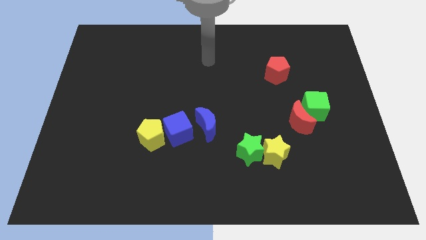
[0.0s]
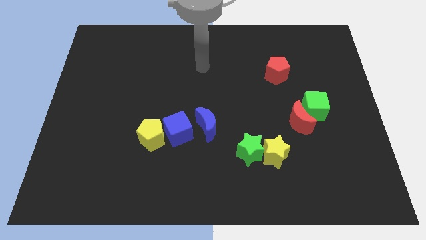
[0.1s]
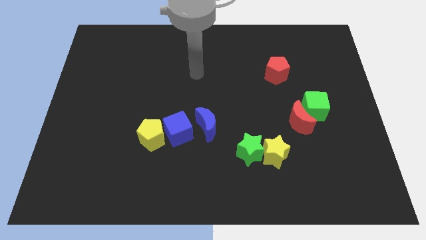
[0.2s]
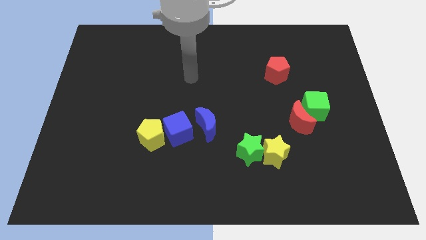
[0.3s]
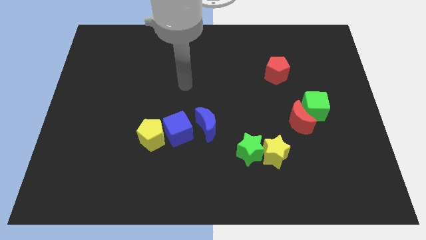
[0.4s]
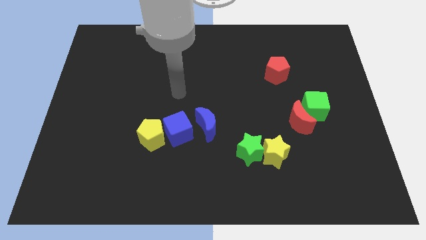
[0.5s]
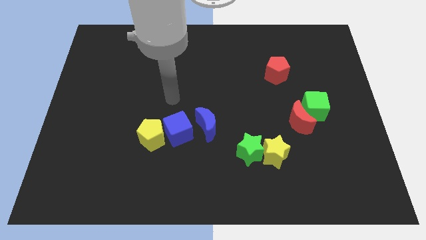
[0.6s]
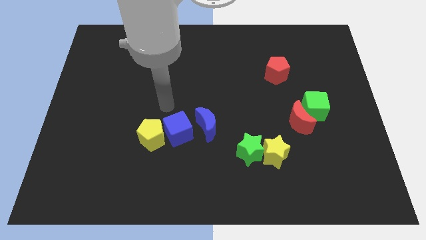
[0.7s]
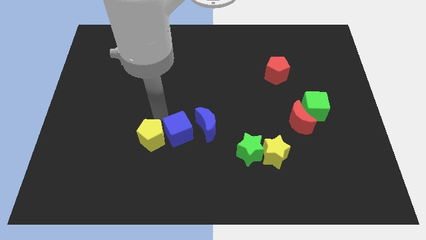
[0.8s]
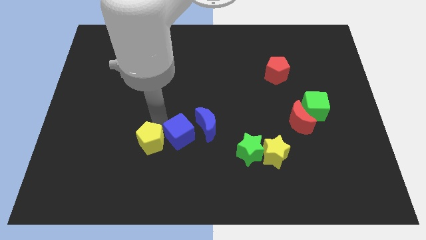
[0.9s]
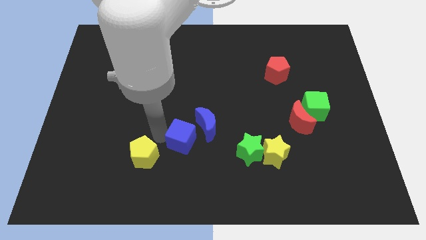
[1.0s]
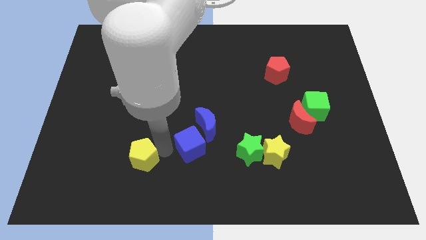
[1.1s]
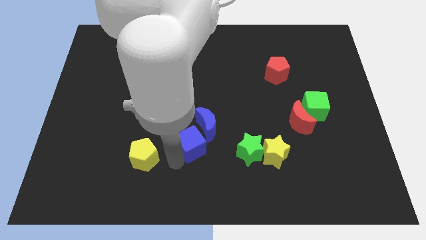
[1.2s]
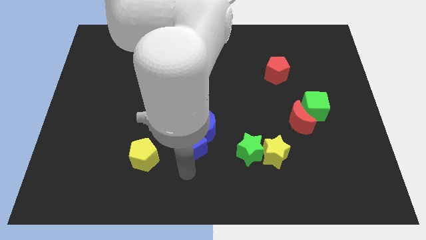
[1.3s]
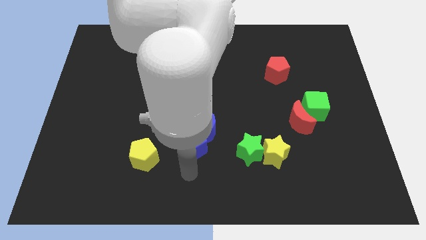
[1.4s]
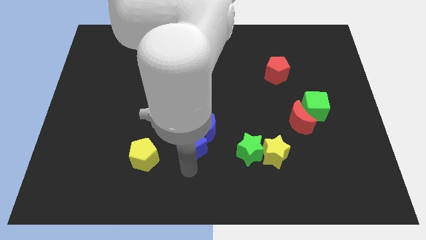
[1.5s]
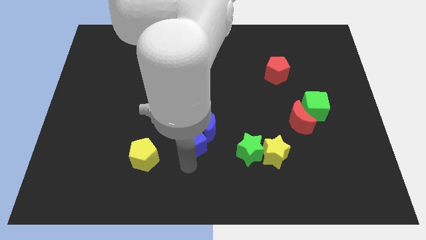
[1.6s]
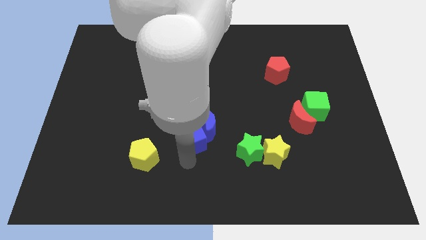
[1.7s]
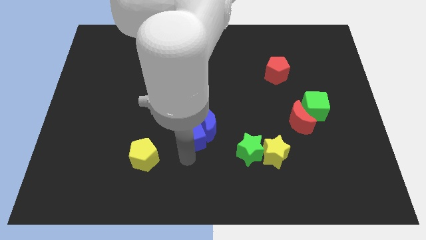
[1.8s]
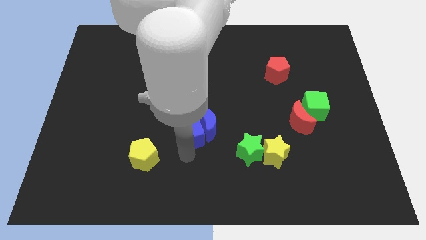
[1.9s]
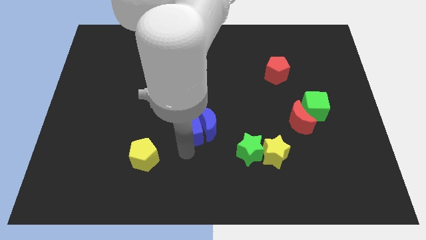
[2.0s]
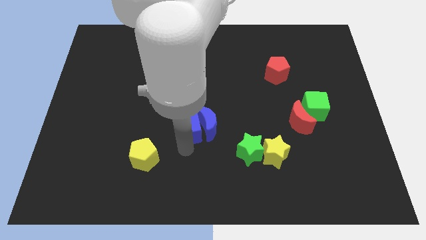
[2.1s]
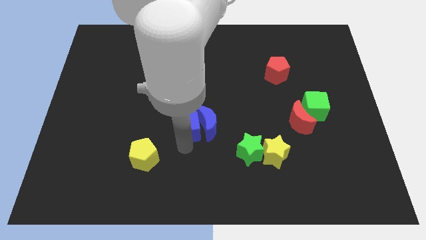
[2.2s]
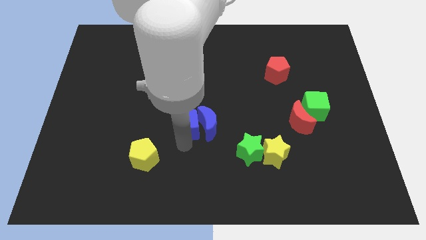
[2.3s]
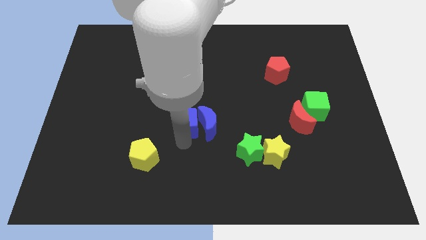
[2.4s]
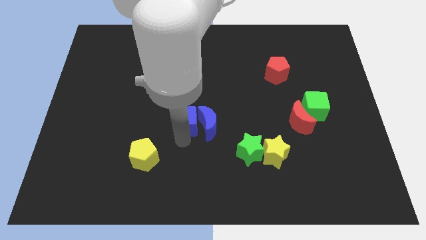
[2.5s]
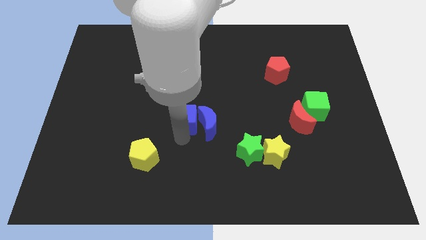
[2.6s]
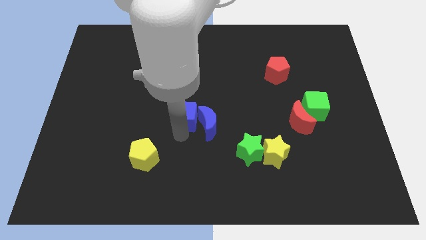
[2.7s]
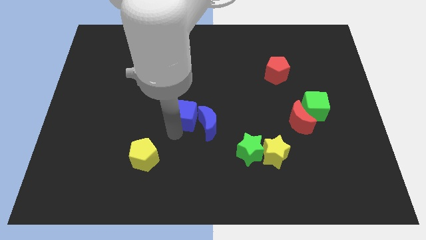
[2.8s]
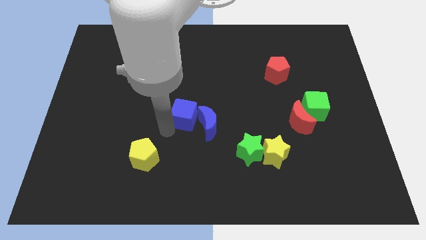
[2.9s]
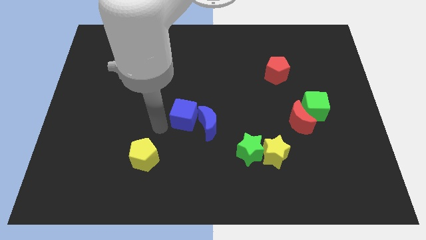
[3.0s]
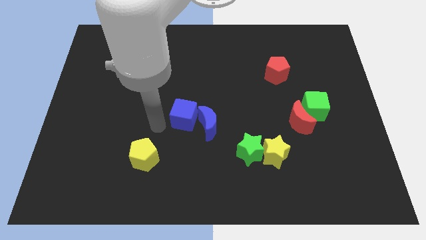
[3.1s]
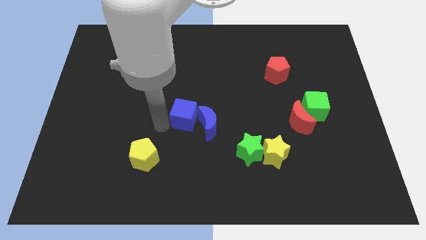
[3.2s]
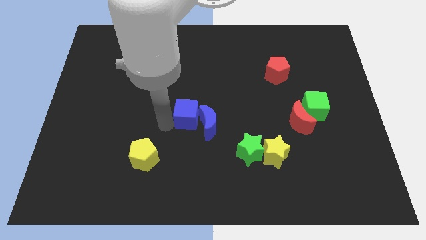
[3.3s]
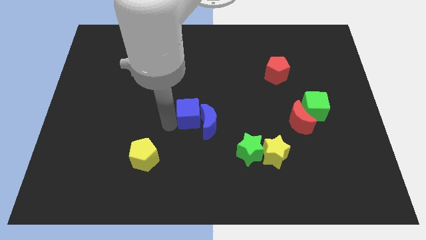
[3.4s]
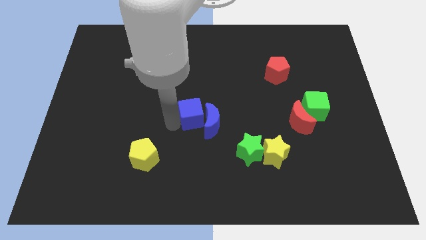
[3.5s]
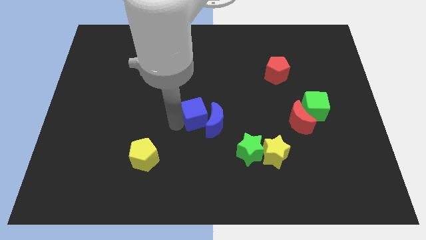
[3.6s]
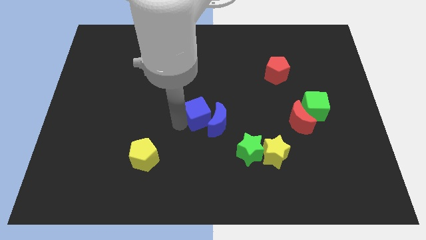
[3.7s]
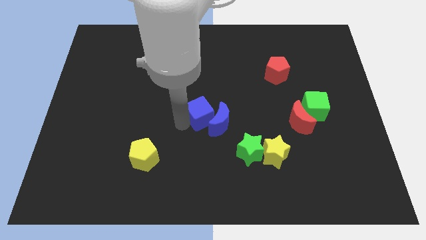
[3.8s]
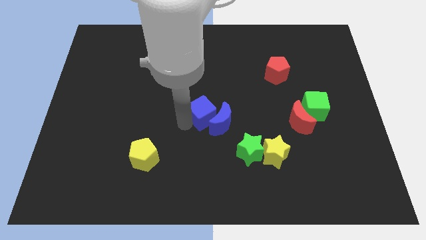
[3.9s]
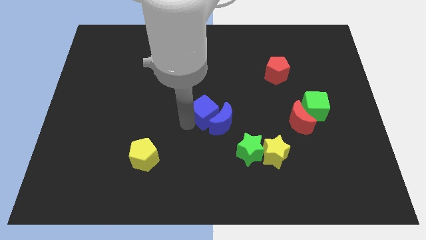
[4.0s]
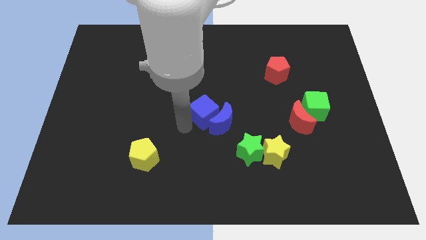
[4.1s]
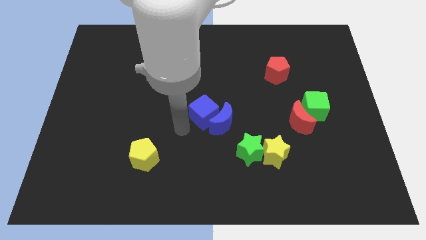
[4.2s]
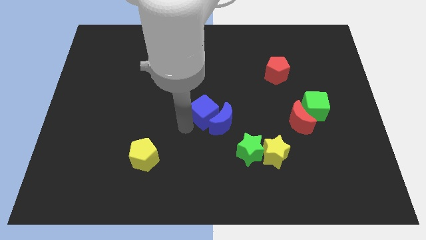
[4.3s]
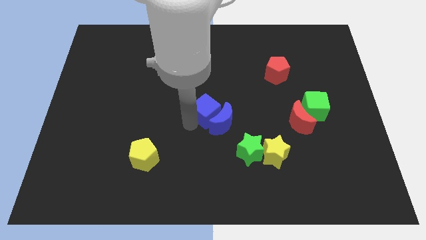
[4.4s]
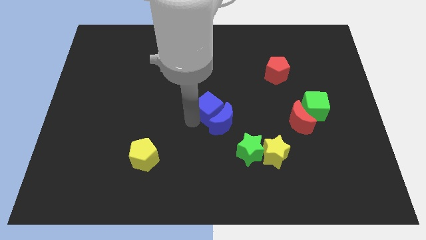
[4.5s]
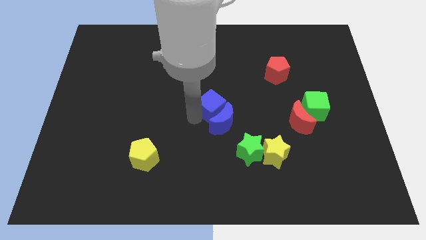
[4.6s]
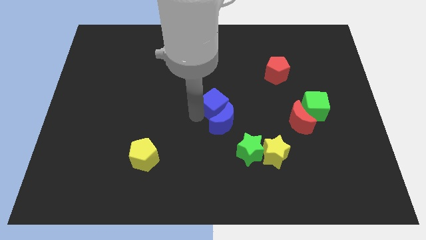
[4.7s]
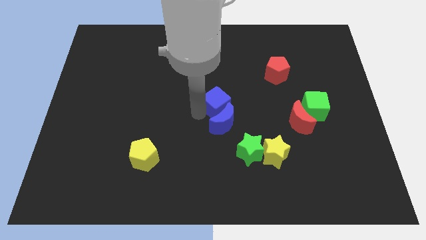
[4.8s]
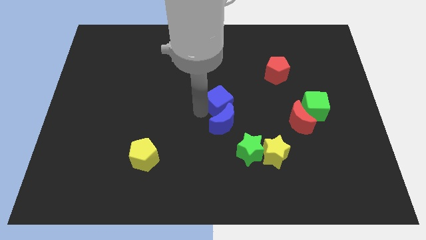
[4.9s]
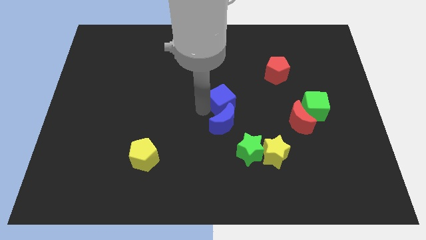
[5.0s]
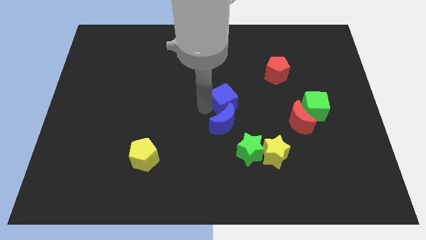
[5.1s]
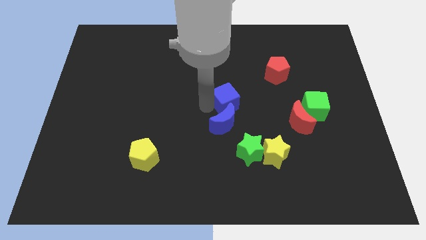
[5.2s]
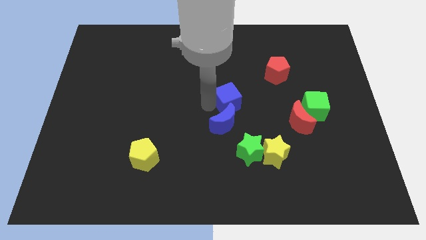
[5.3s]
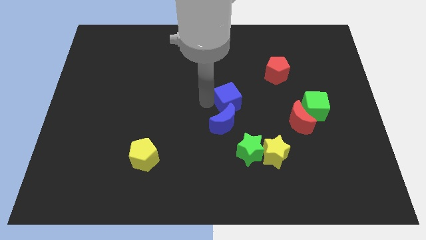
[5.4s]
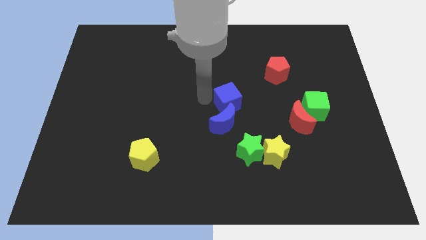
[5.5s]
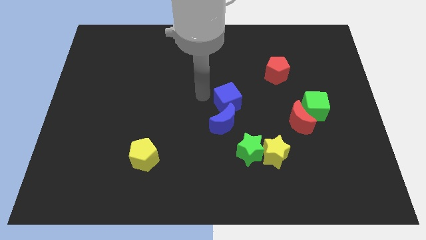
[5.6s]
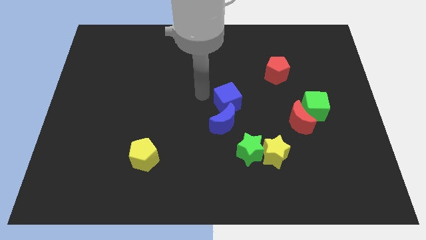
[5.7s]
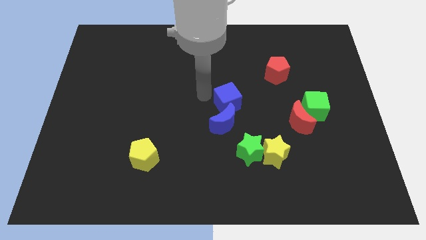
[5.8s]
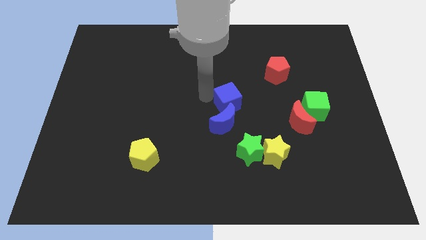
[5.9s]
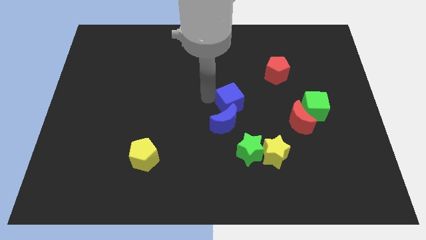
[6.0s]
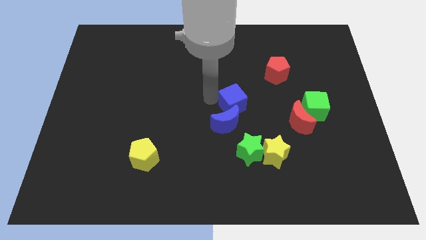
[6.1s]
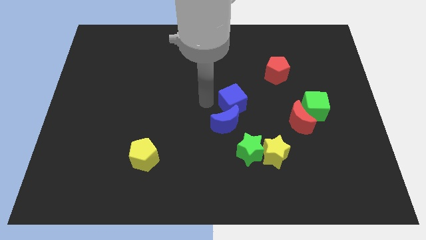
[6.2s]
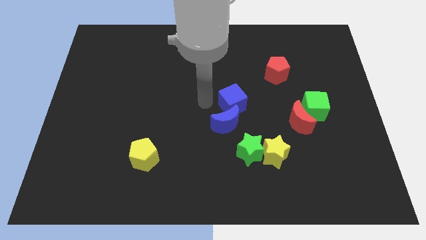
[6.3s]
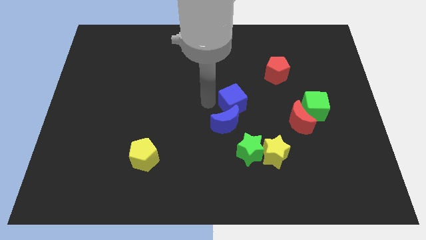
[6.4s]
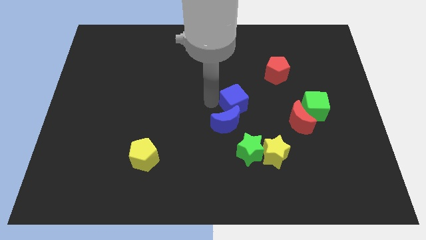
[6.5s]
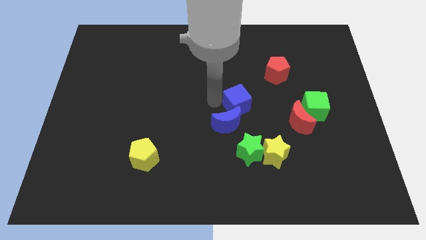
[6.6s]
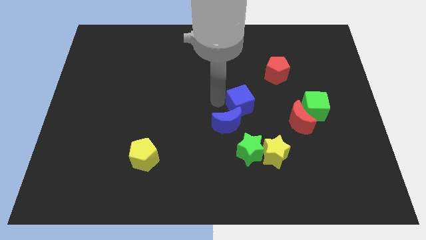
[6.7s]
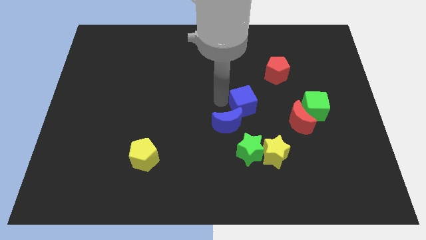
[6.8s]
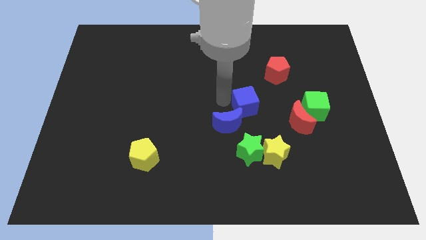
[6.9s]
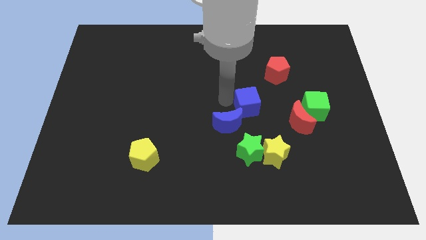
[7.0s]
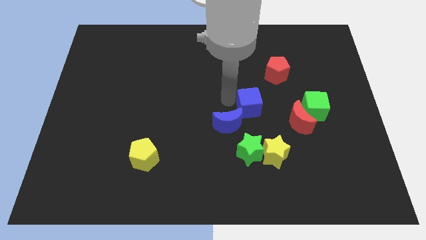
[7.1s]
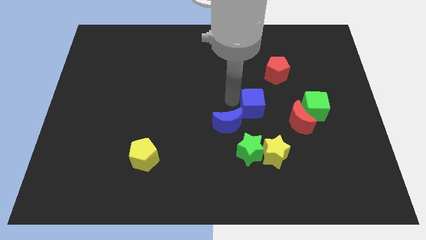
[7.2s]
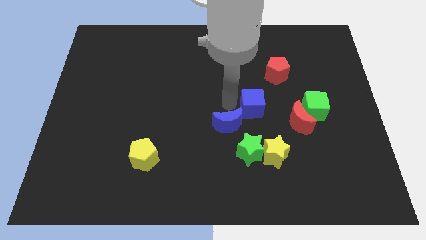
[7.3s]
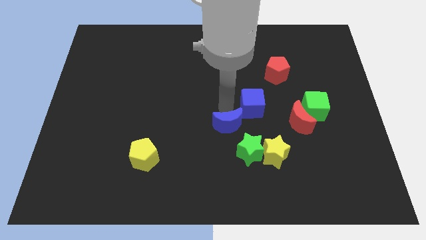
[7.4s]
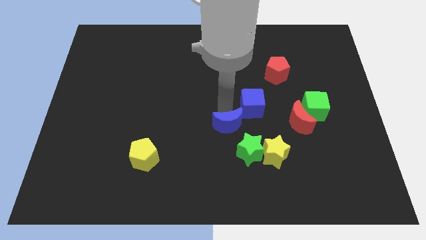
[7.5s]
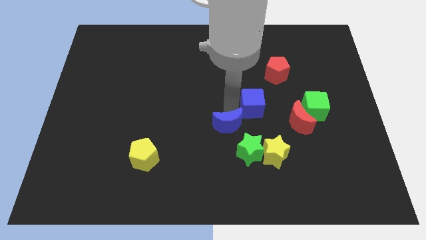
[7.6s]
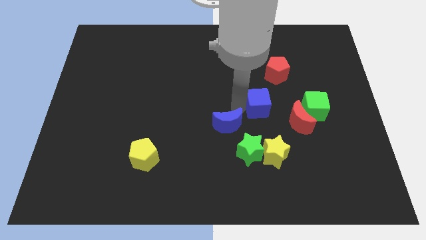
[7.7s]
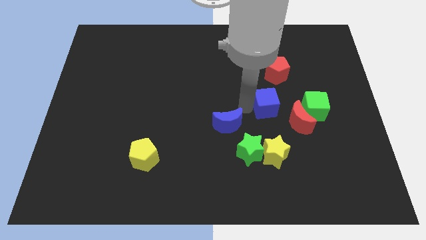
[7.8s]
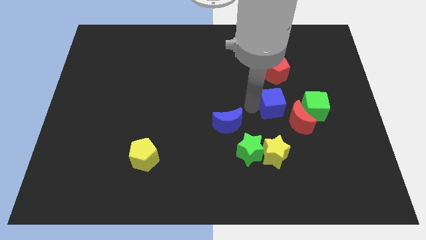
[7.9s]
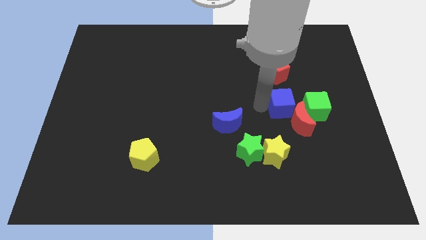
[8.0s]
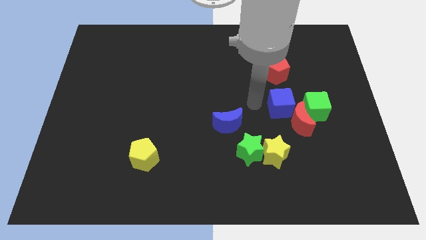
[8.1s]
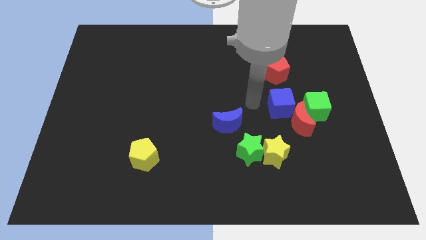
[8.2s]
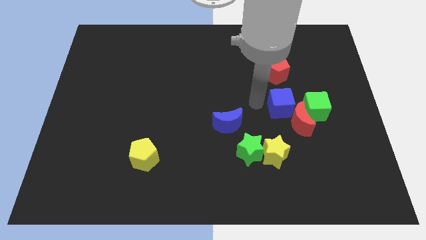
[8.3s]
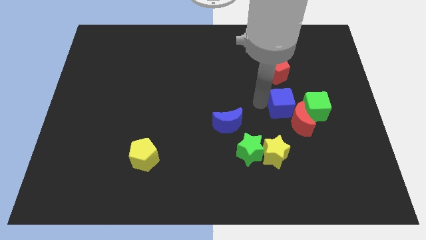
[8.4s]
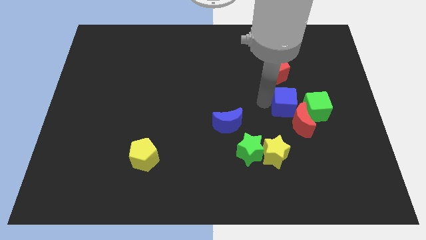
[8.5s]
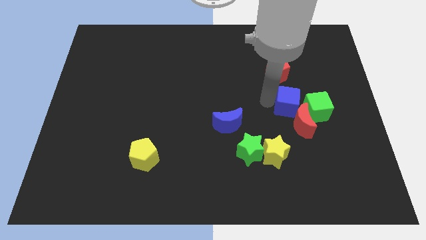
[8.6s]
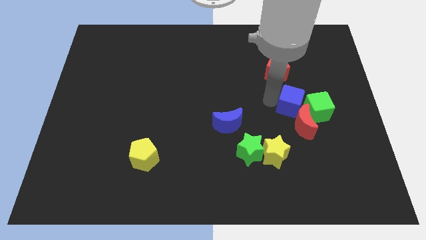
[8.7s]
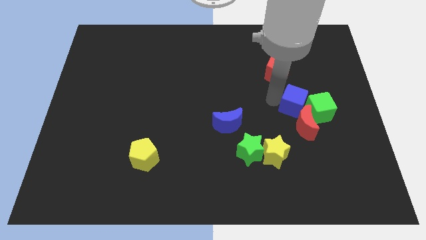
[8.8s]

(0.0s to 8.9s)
slide the blue cube towards the green cube
